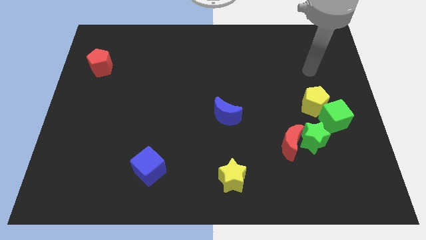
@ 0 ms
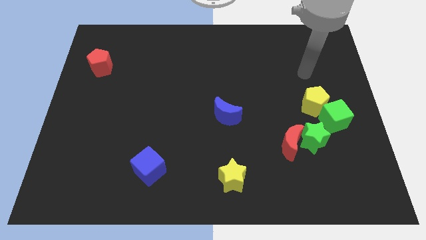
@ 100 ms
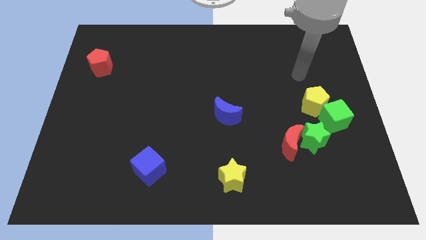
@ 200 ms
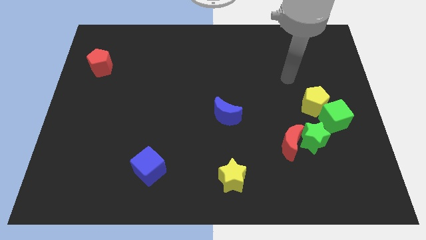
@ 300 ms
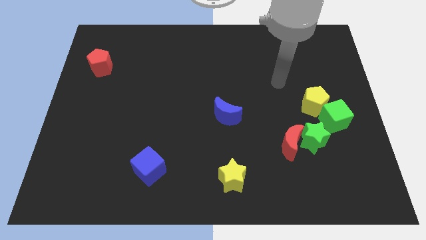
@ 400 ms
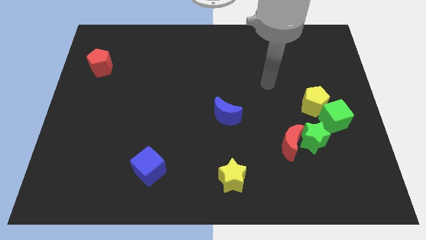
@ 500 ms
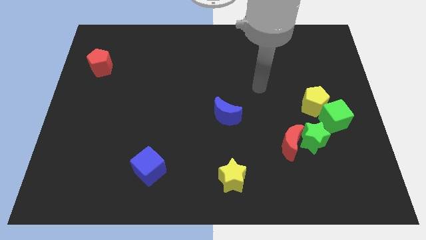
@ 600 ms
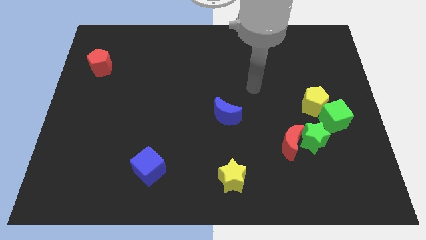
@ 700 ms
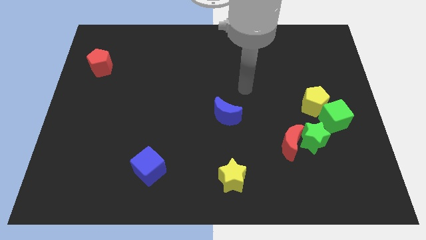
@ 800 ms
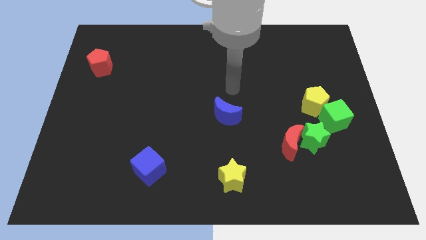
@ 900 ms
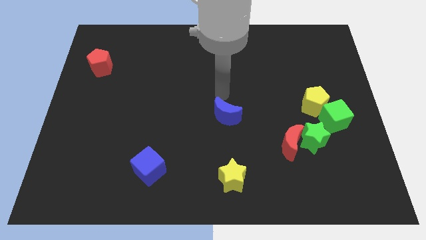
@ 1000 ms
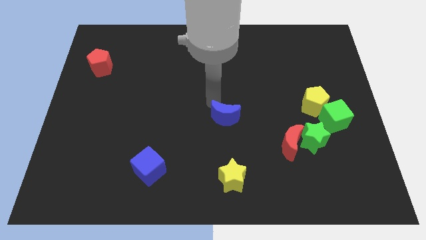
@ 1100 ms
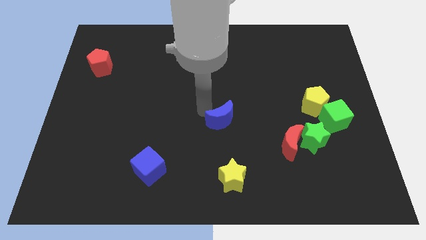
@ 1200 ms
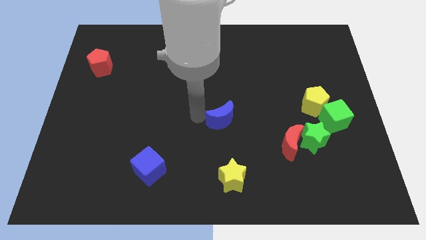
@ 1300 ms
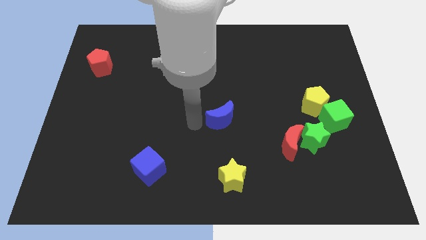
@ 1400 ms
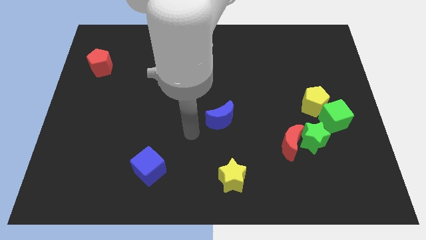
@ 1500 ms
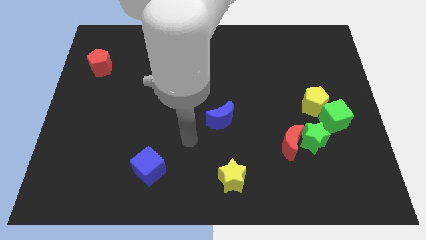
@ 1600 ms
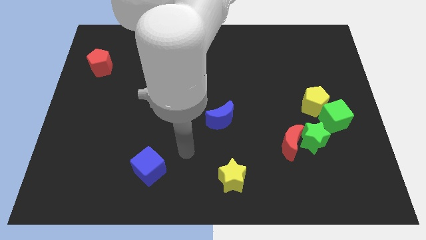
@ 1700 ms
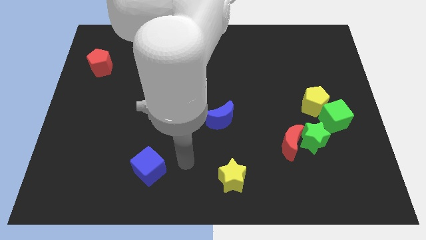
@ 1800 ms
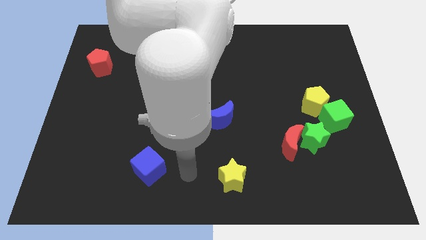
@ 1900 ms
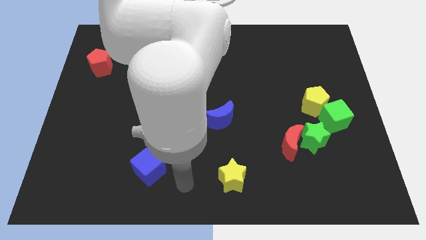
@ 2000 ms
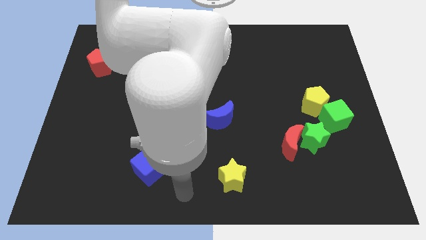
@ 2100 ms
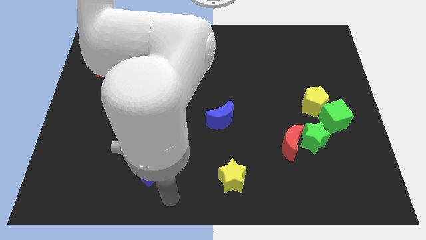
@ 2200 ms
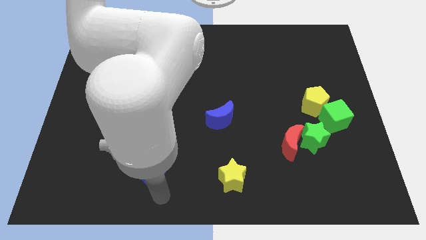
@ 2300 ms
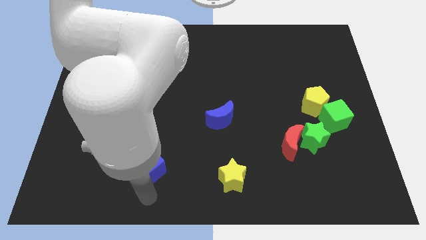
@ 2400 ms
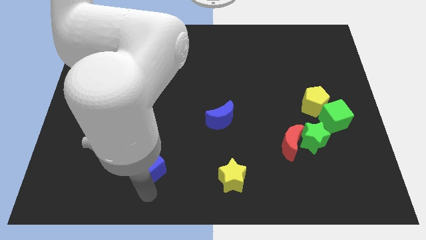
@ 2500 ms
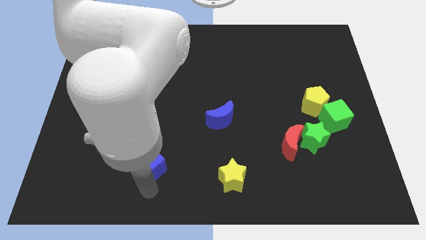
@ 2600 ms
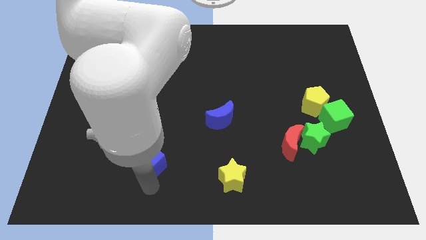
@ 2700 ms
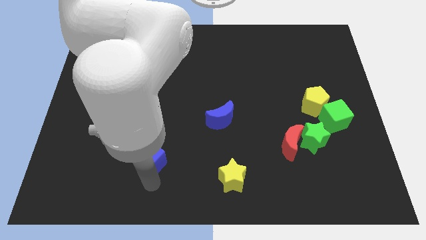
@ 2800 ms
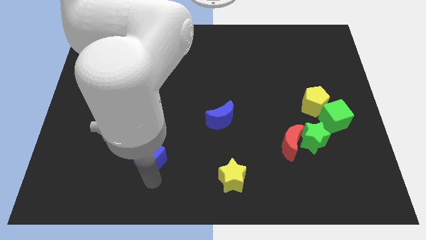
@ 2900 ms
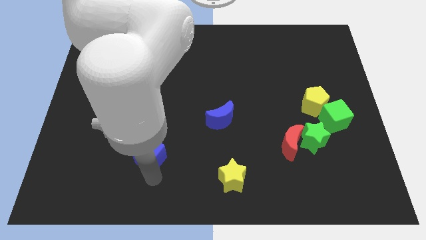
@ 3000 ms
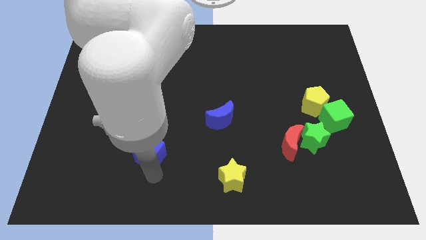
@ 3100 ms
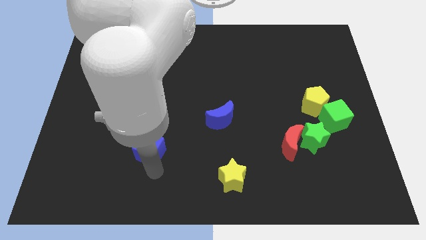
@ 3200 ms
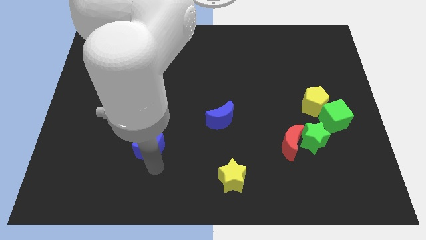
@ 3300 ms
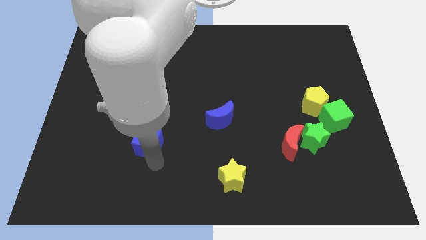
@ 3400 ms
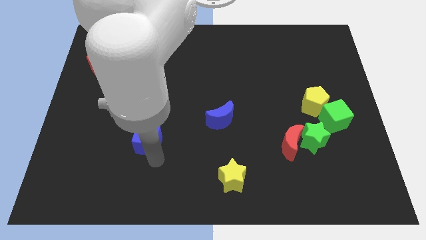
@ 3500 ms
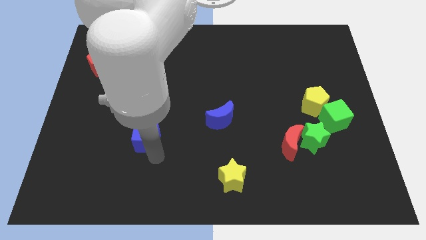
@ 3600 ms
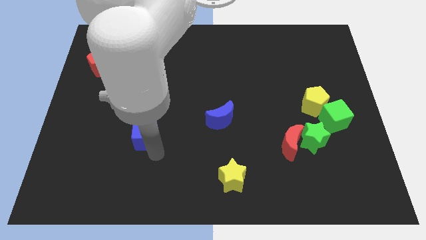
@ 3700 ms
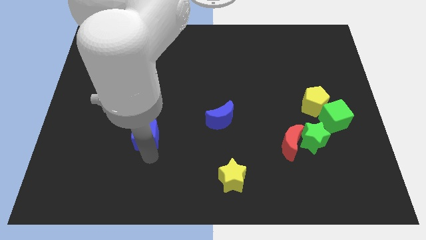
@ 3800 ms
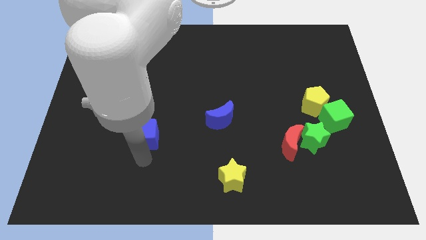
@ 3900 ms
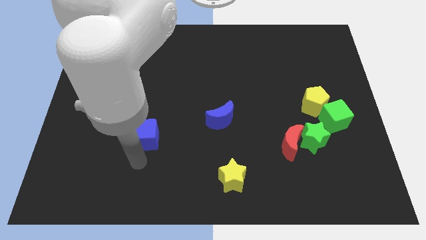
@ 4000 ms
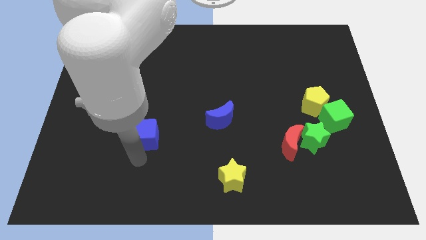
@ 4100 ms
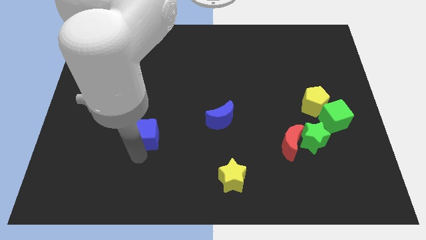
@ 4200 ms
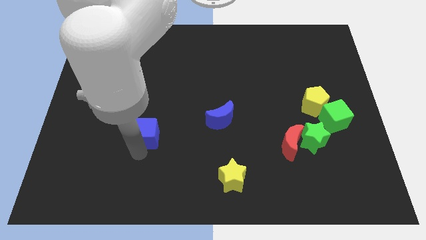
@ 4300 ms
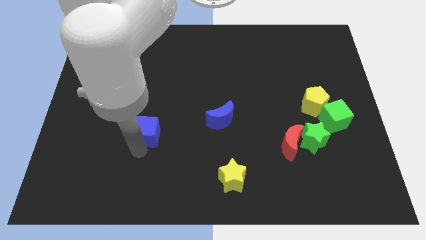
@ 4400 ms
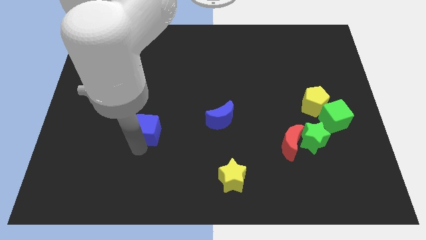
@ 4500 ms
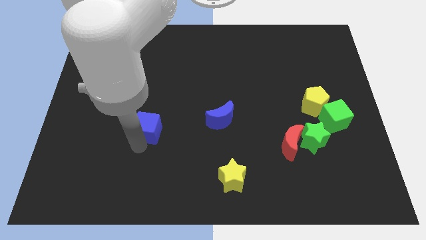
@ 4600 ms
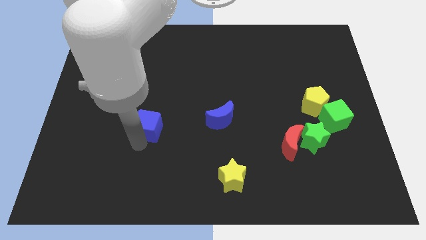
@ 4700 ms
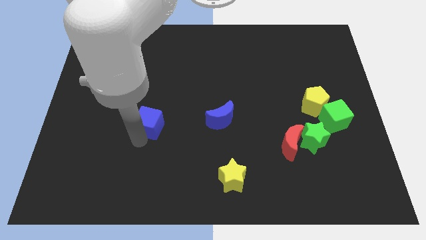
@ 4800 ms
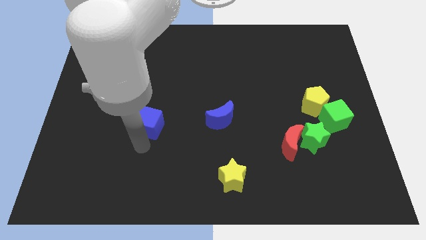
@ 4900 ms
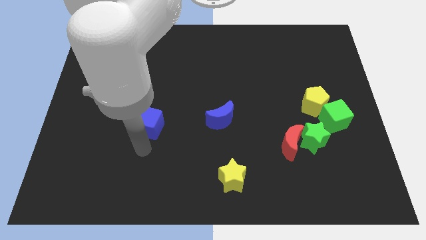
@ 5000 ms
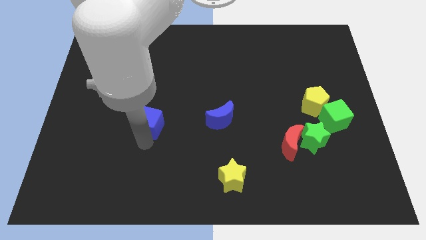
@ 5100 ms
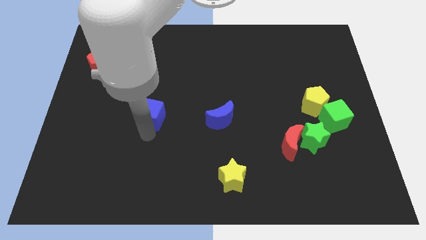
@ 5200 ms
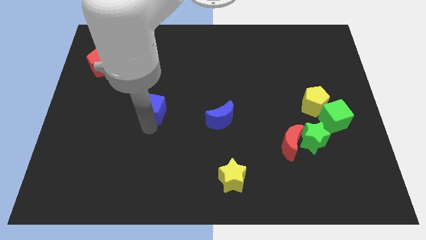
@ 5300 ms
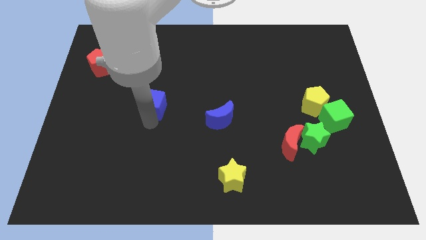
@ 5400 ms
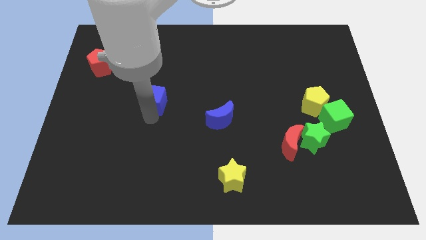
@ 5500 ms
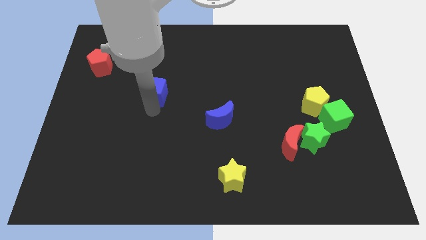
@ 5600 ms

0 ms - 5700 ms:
push the blue cube up

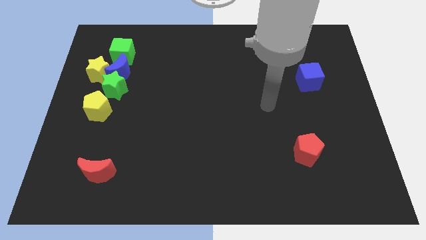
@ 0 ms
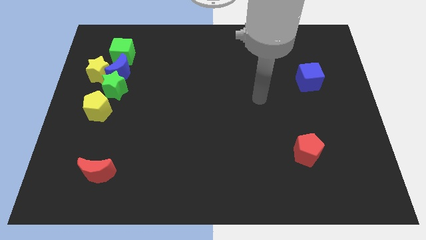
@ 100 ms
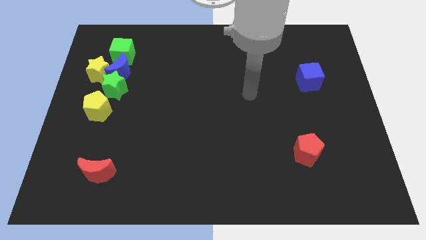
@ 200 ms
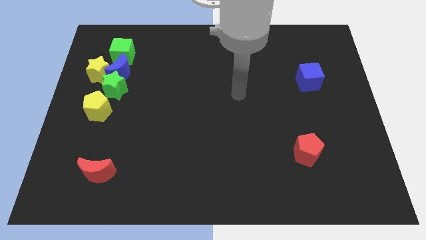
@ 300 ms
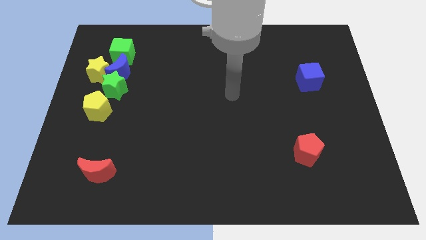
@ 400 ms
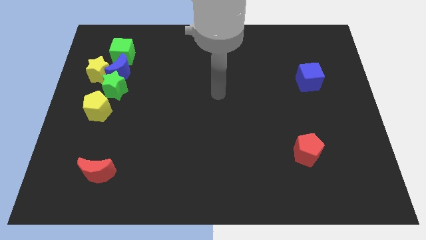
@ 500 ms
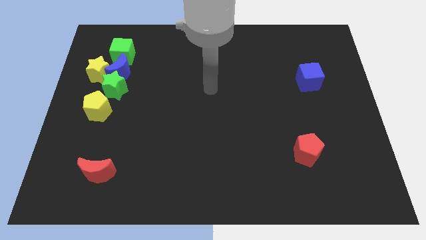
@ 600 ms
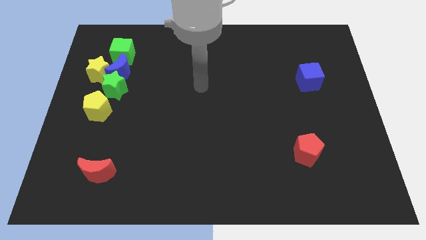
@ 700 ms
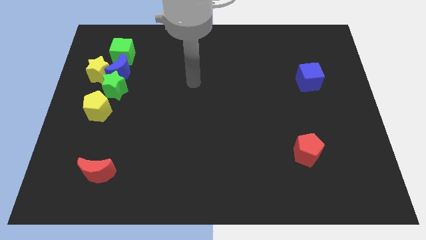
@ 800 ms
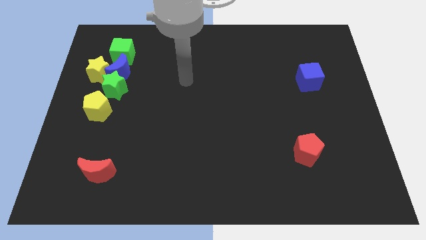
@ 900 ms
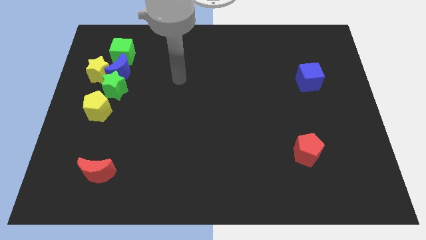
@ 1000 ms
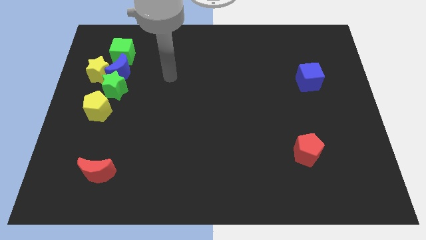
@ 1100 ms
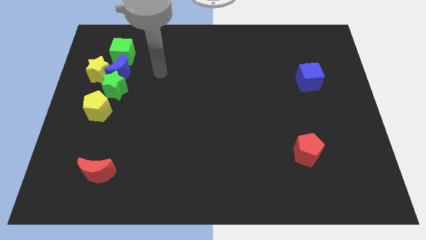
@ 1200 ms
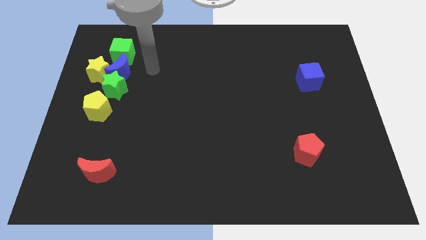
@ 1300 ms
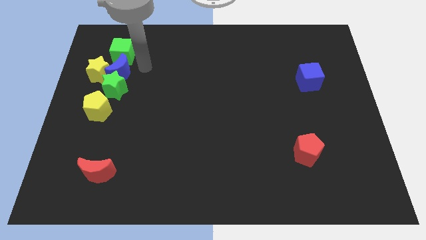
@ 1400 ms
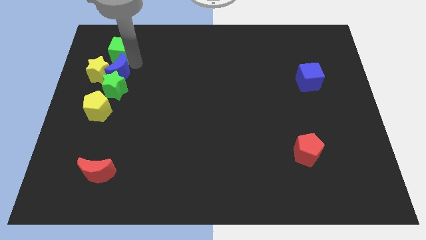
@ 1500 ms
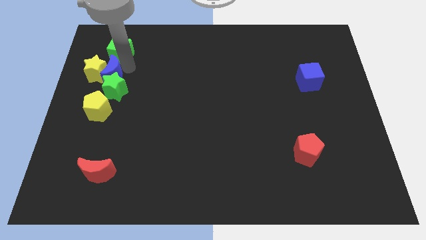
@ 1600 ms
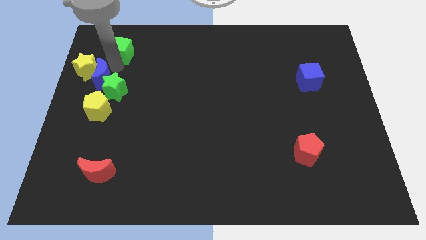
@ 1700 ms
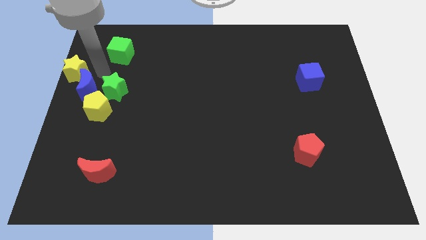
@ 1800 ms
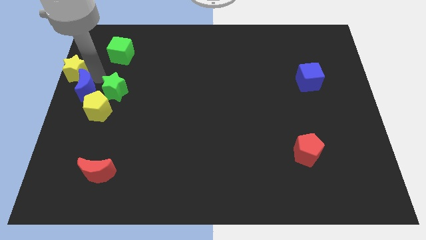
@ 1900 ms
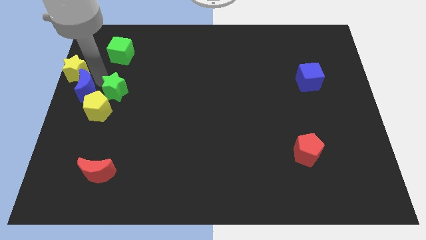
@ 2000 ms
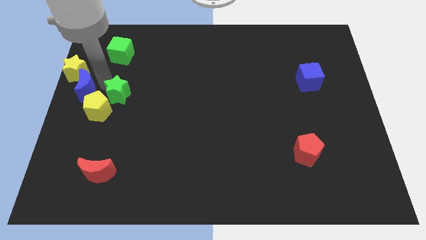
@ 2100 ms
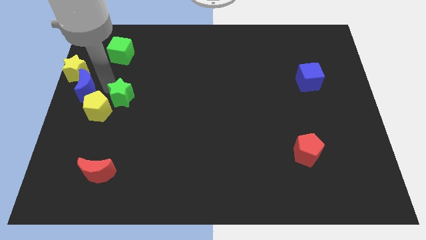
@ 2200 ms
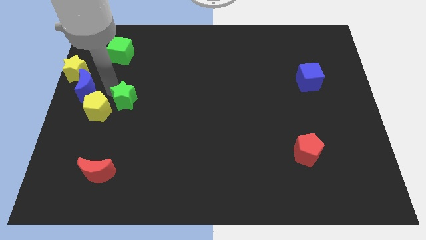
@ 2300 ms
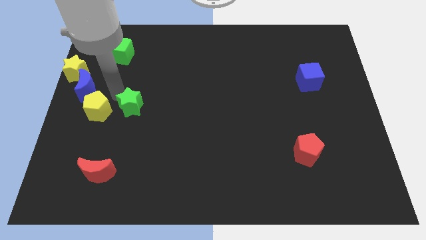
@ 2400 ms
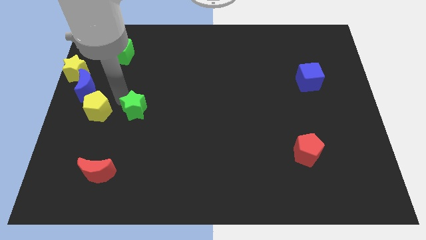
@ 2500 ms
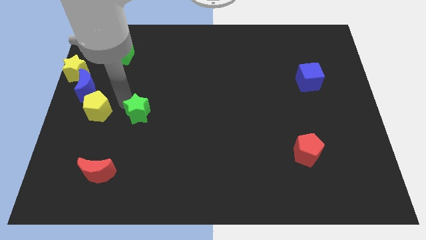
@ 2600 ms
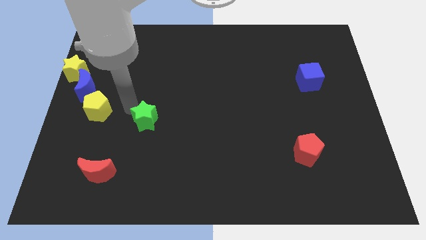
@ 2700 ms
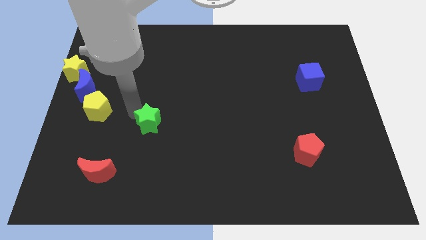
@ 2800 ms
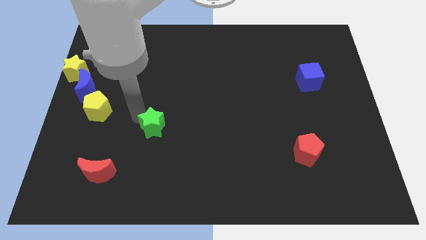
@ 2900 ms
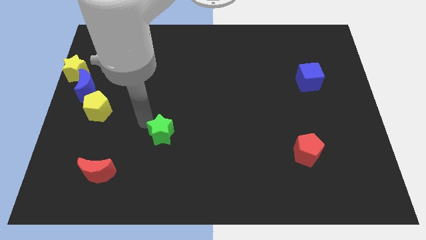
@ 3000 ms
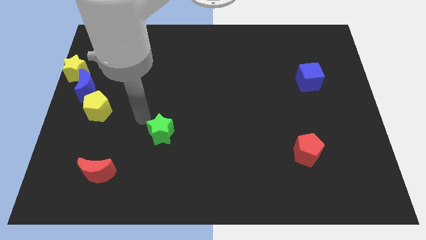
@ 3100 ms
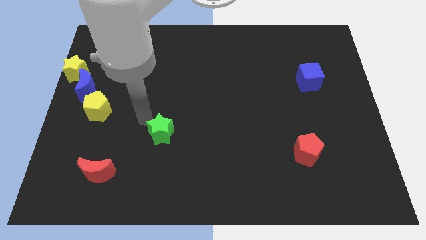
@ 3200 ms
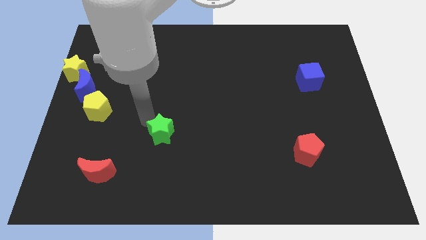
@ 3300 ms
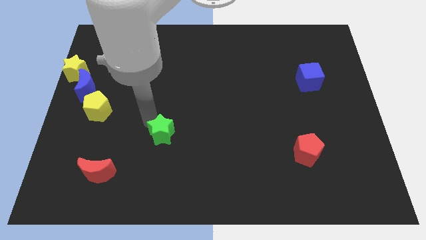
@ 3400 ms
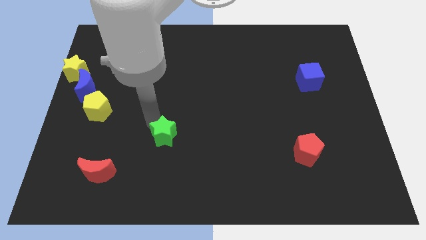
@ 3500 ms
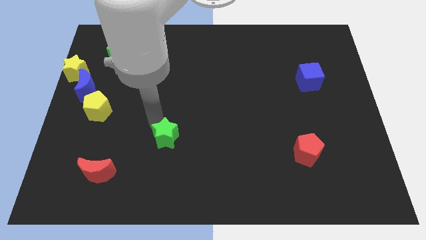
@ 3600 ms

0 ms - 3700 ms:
slide the green star diagonally down and to the right
